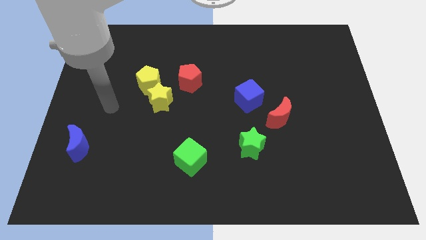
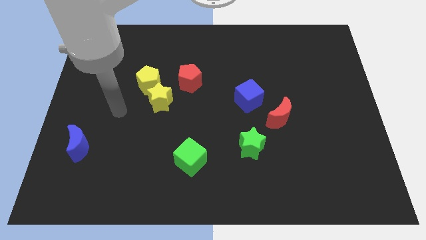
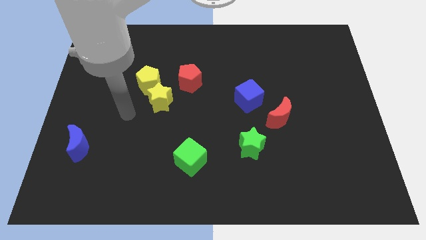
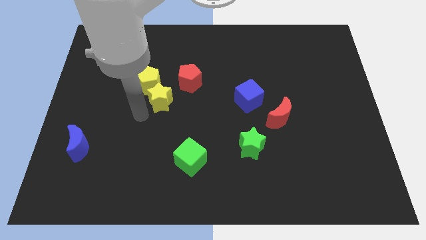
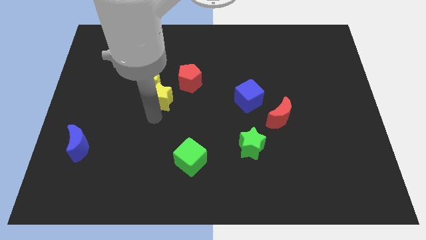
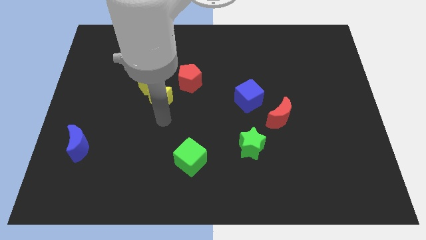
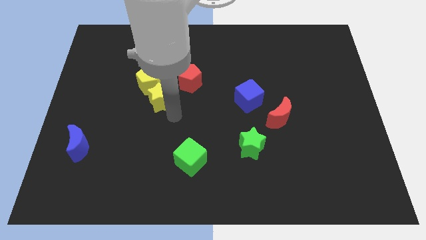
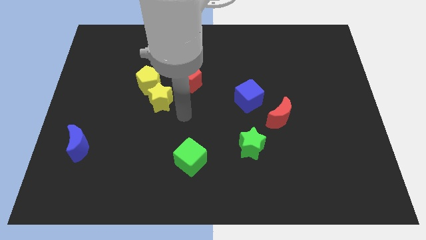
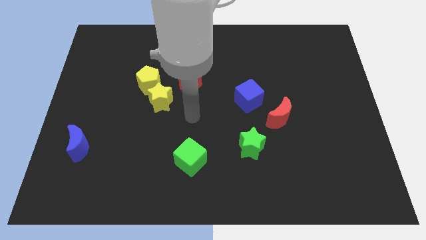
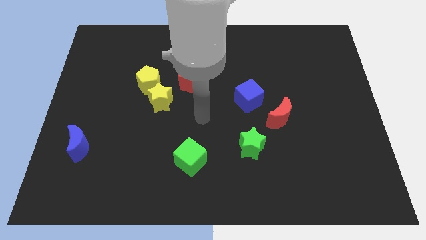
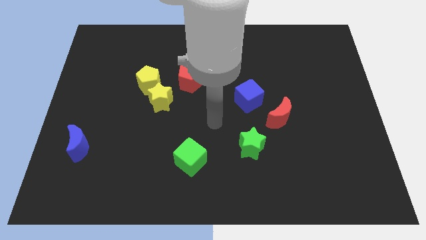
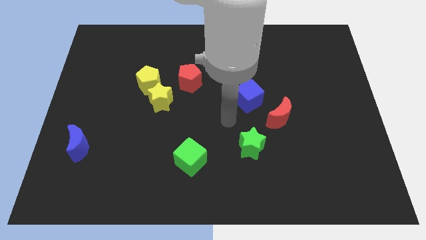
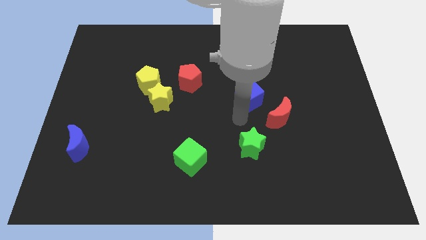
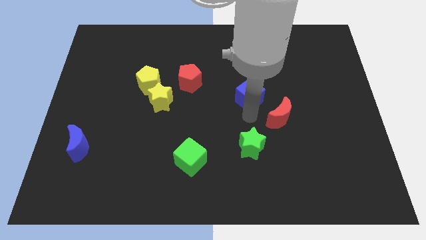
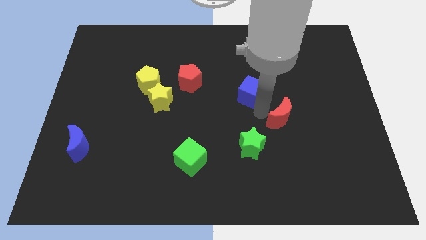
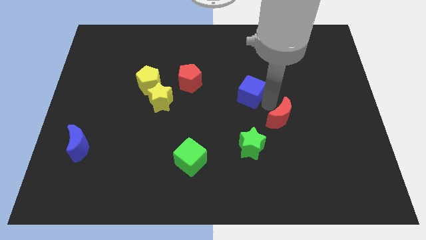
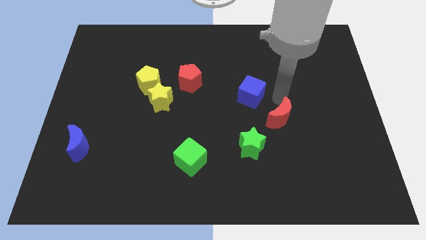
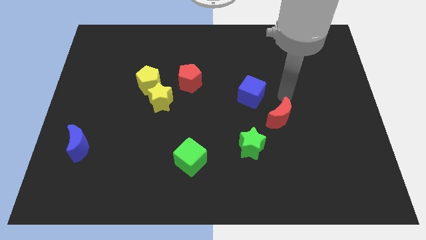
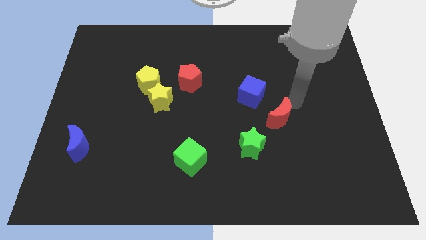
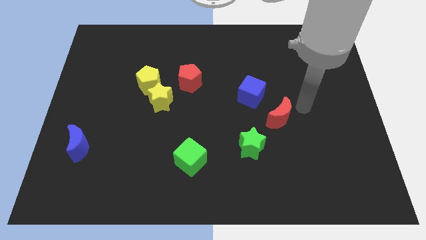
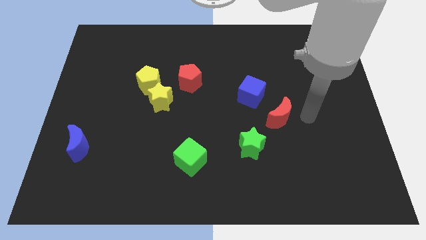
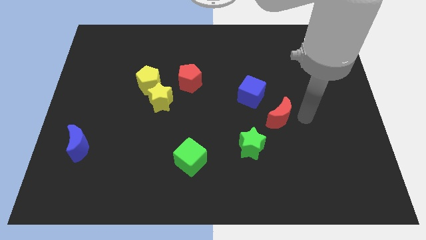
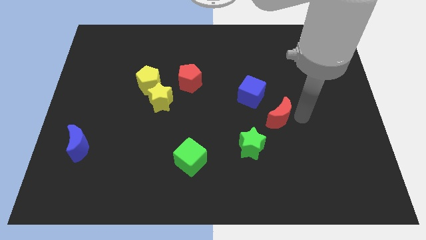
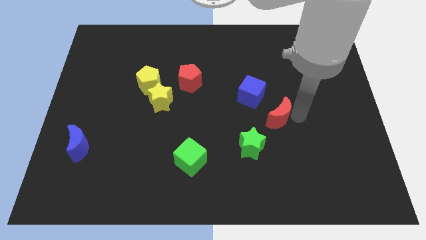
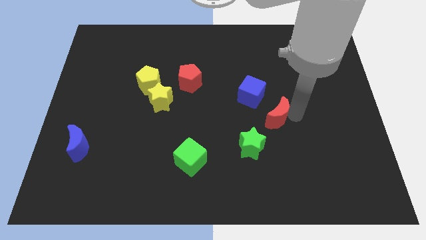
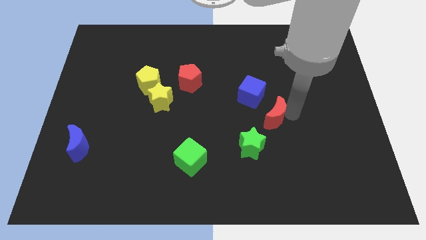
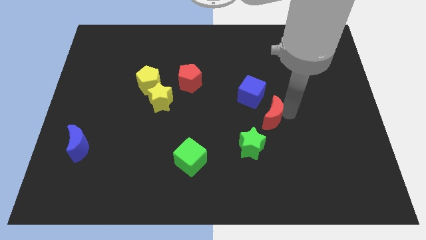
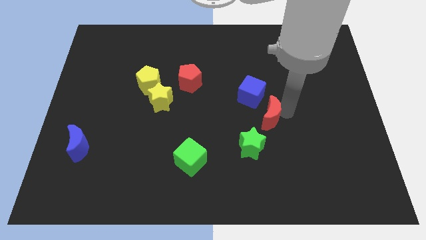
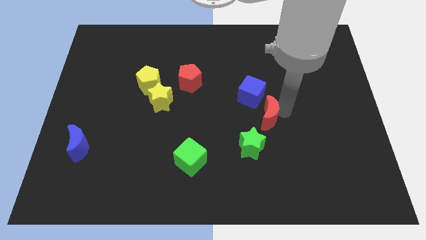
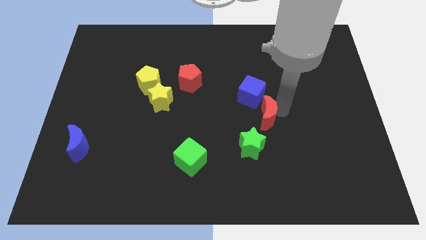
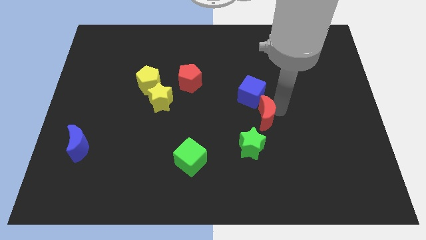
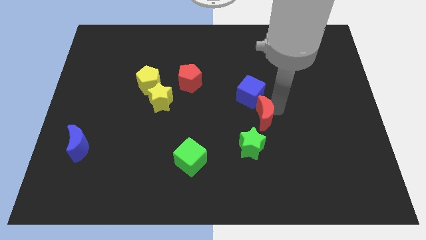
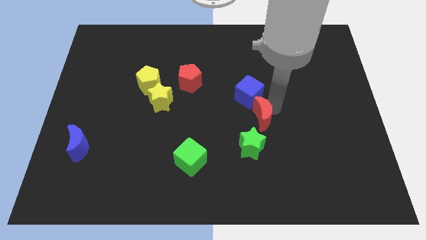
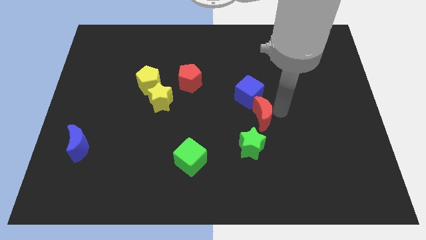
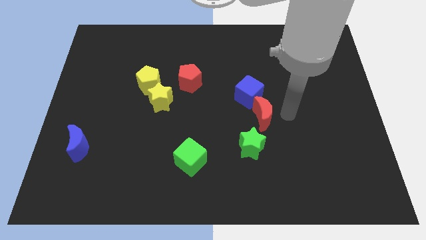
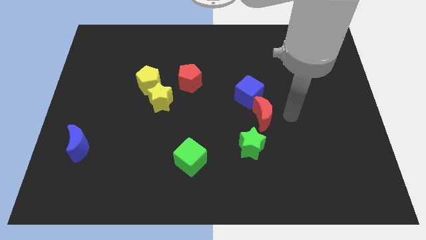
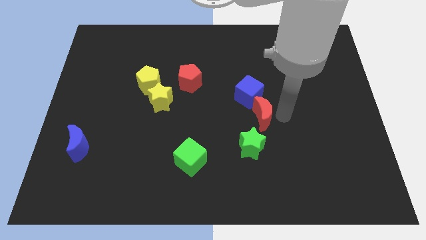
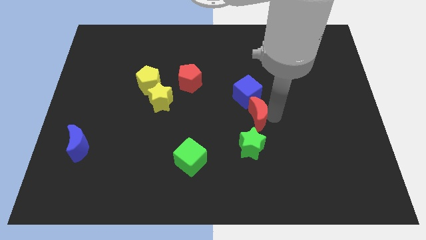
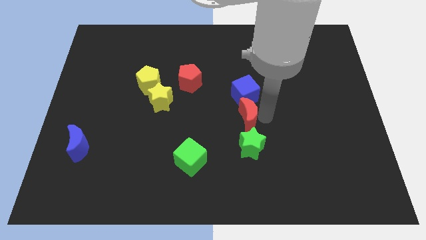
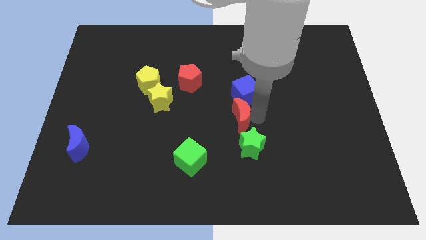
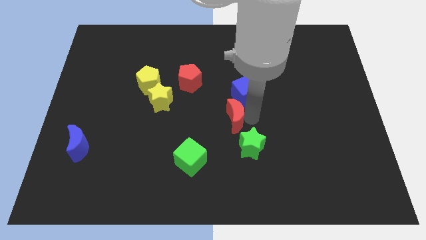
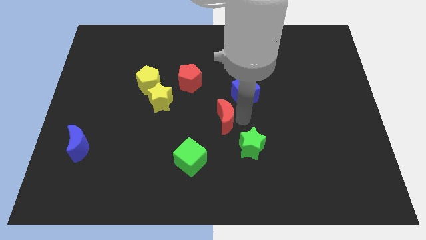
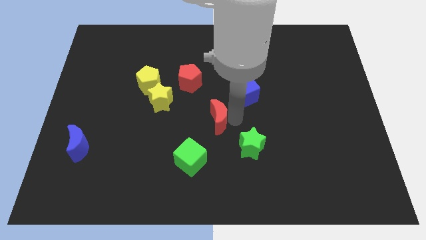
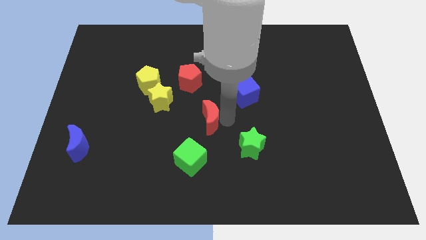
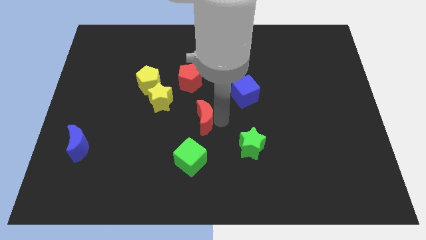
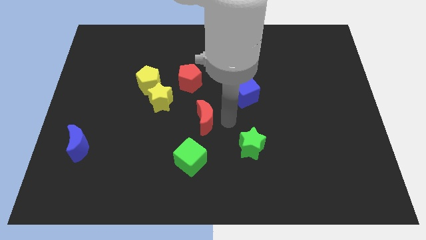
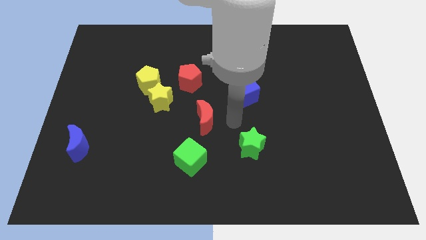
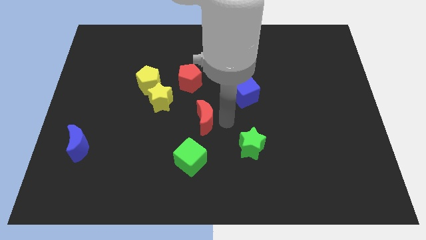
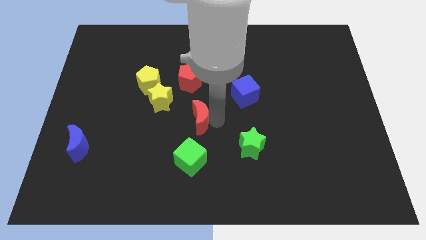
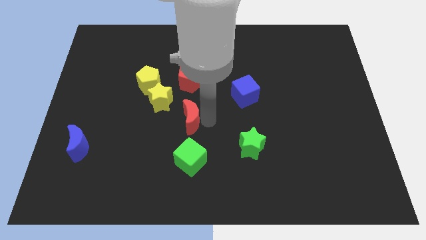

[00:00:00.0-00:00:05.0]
move the red moon left

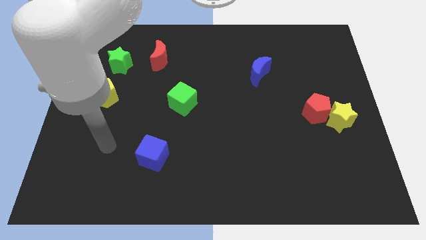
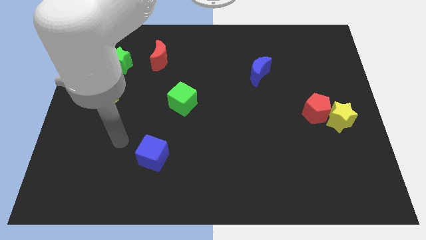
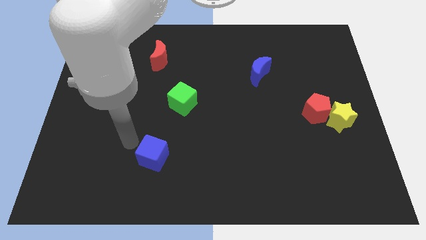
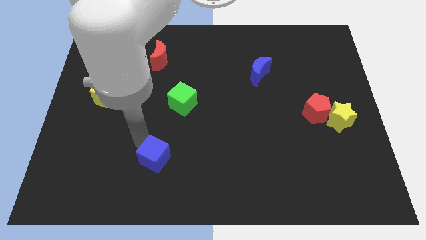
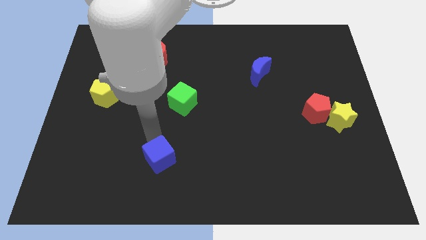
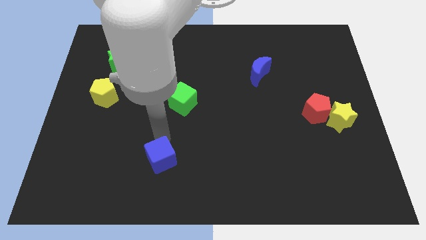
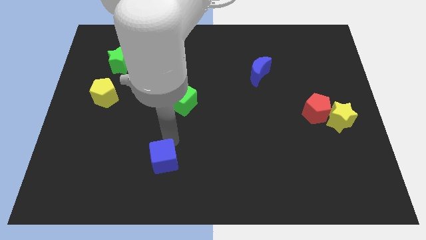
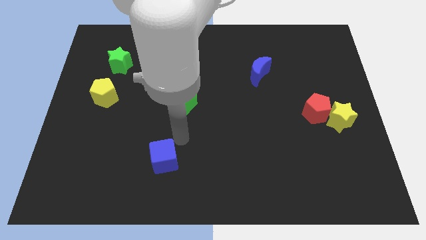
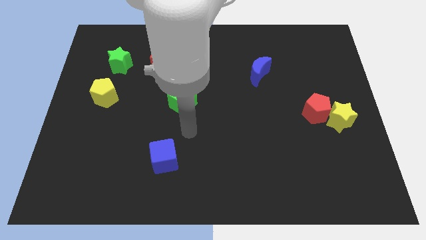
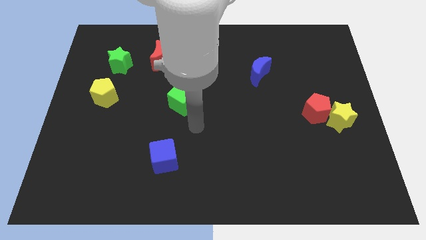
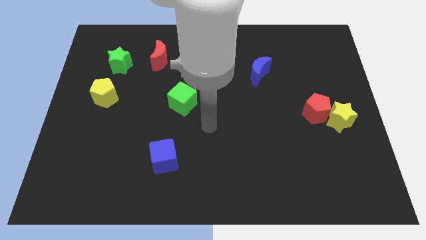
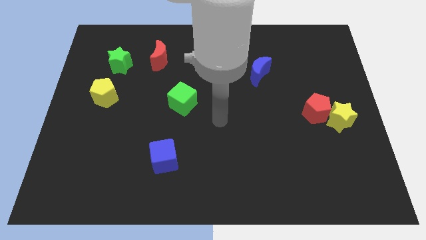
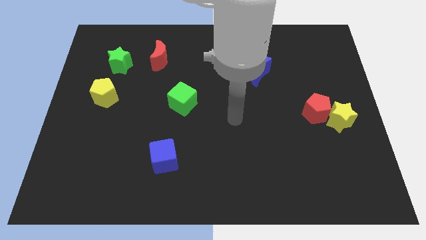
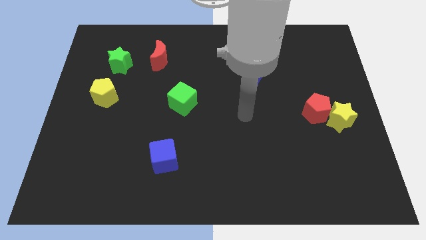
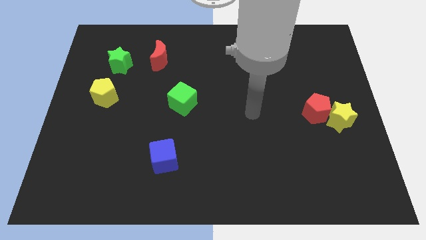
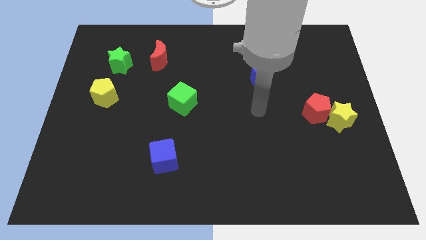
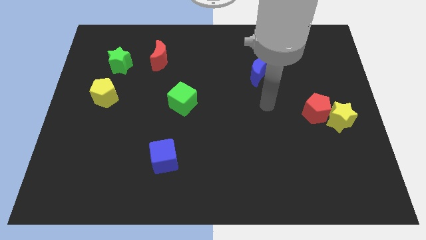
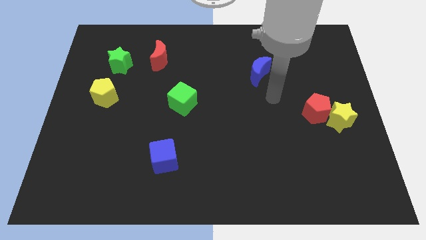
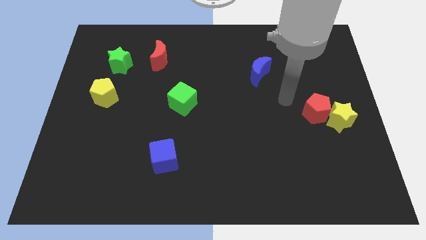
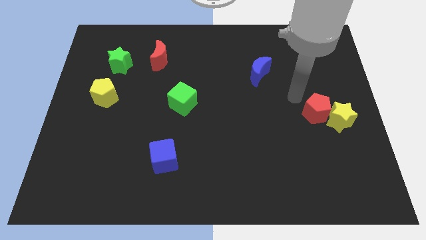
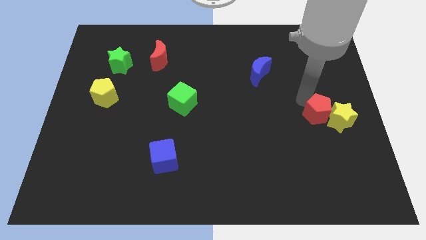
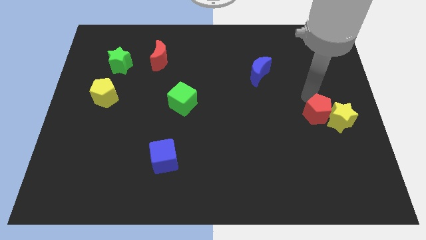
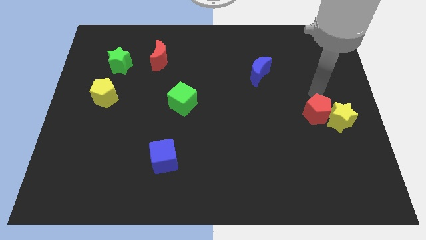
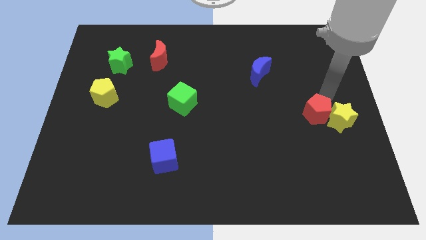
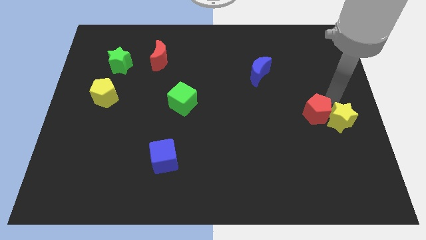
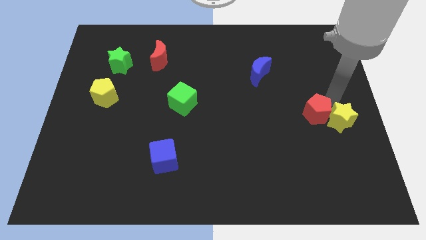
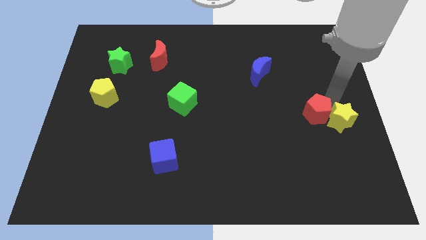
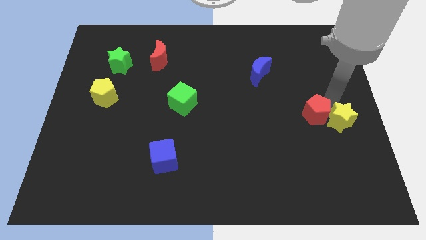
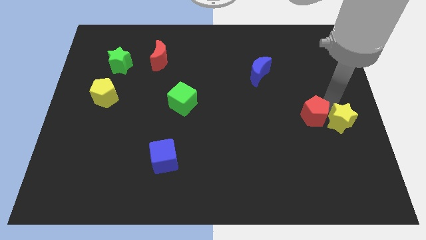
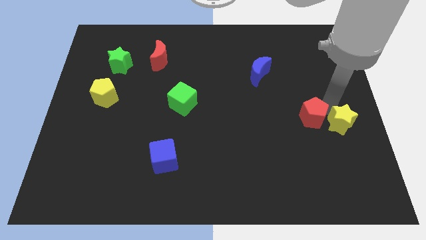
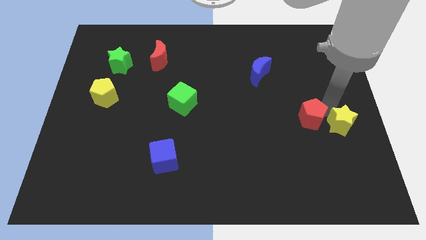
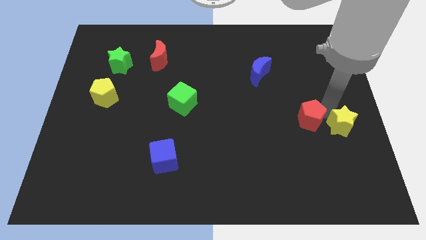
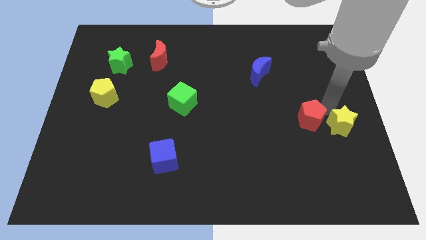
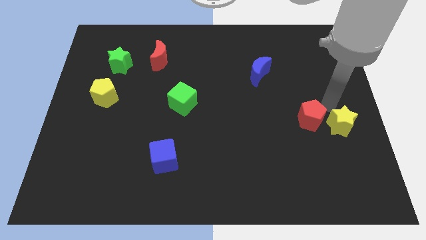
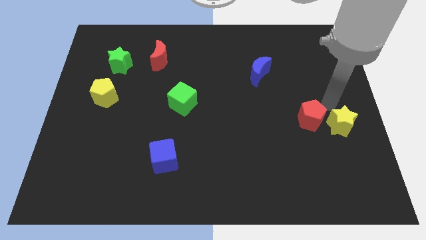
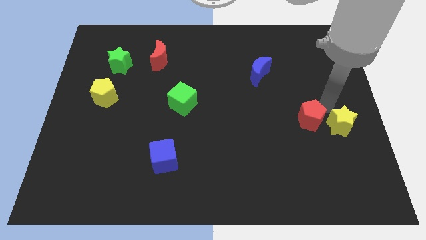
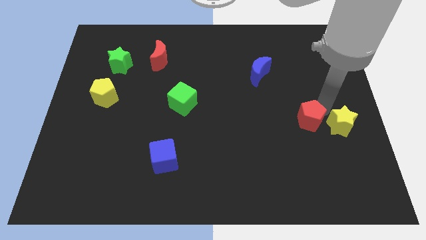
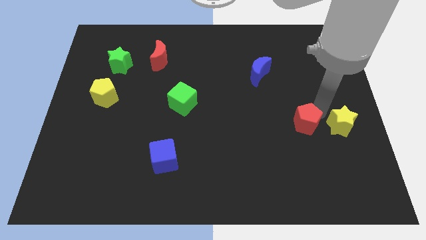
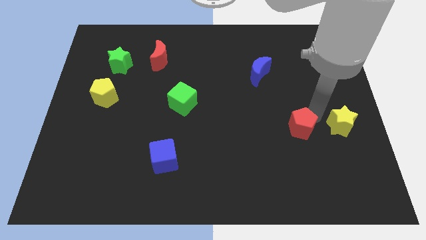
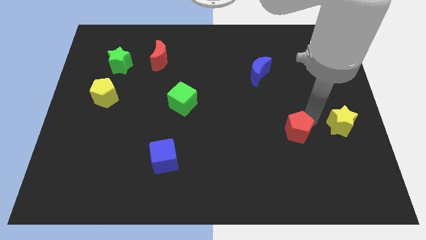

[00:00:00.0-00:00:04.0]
push the red pentagon somewhat down and left diagonally
